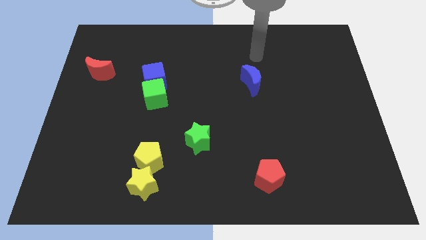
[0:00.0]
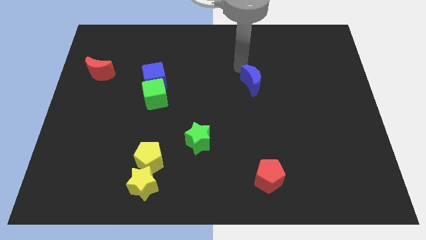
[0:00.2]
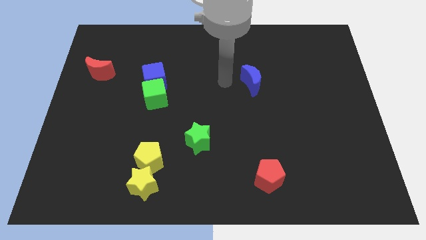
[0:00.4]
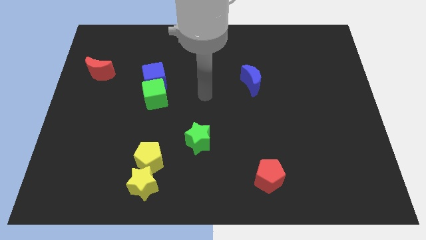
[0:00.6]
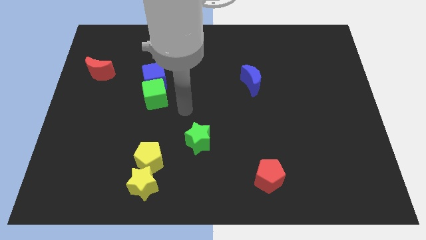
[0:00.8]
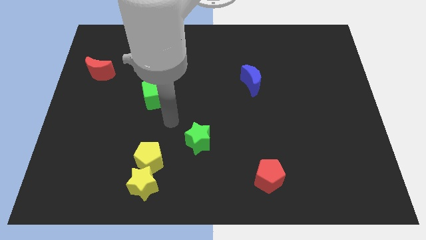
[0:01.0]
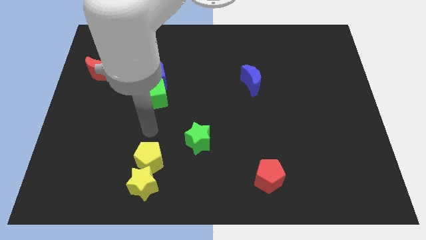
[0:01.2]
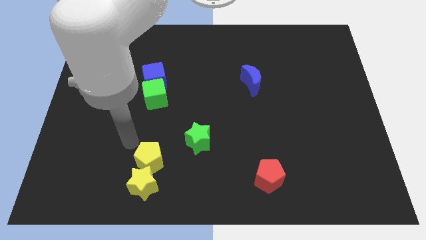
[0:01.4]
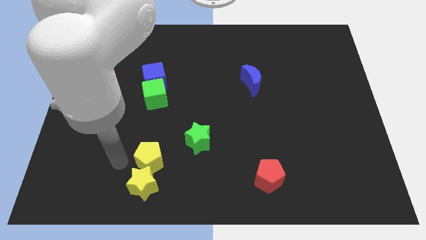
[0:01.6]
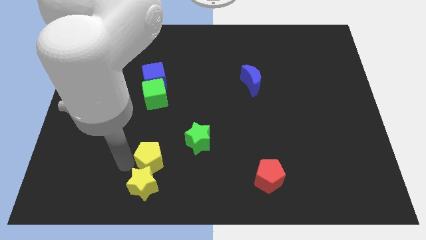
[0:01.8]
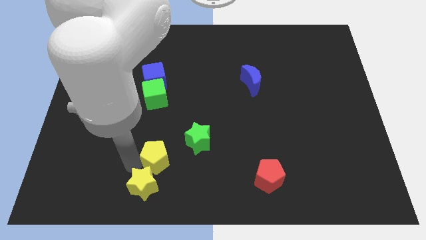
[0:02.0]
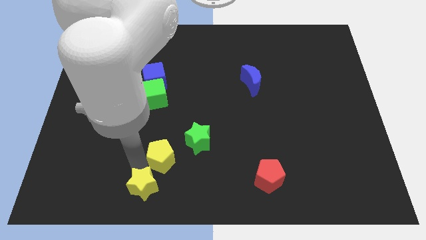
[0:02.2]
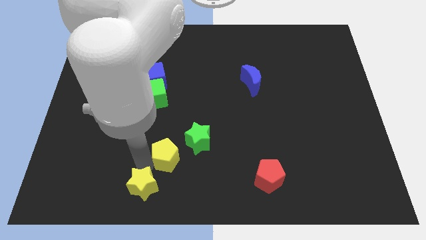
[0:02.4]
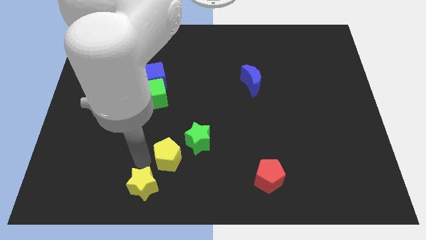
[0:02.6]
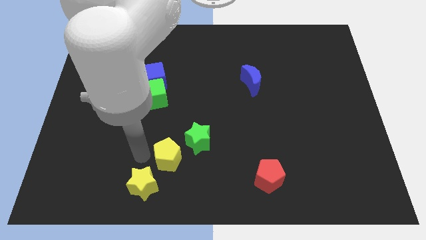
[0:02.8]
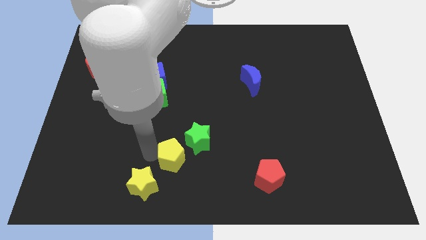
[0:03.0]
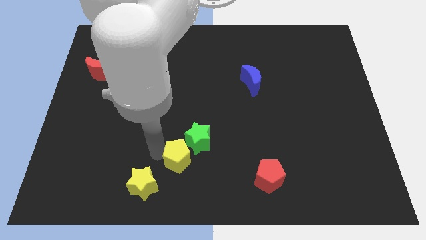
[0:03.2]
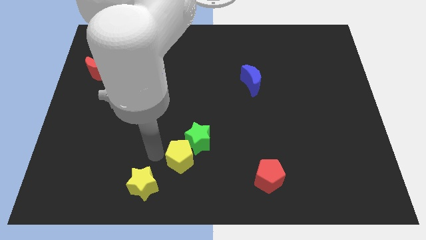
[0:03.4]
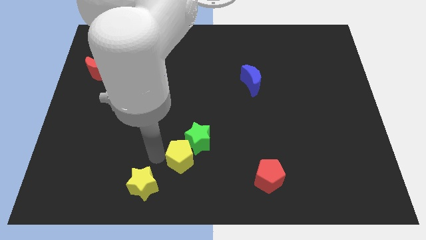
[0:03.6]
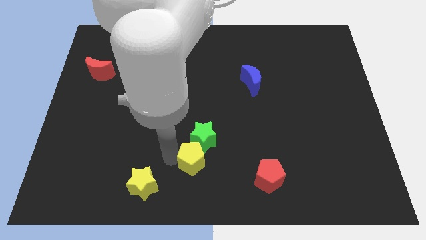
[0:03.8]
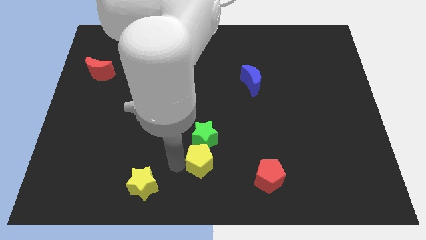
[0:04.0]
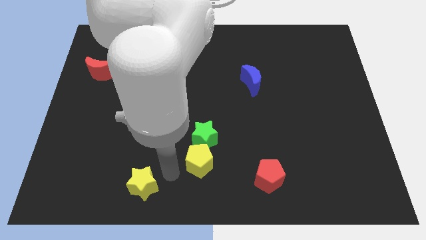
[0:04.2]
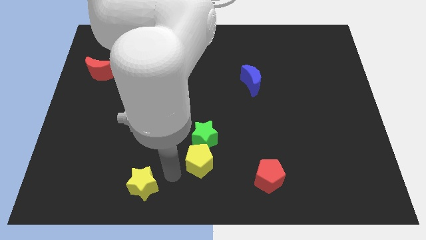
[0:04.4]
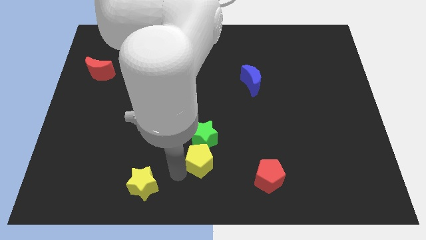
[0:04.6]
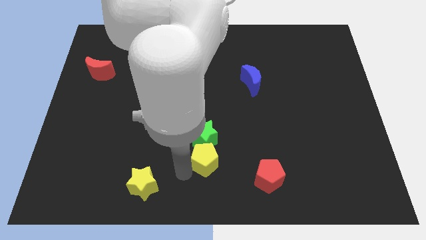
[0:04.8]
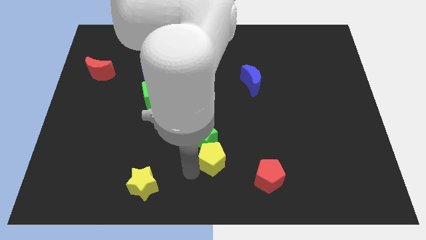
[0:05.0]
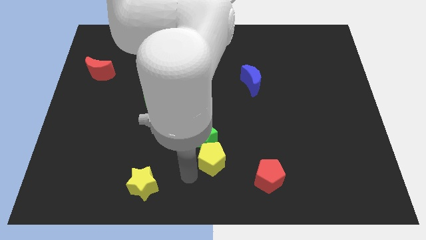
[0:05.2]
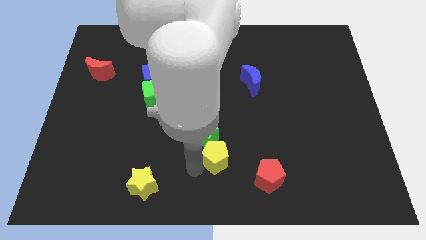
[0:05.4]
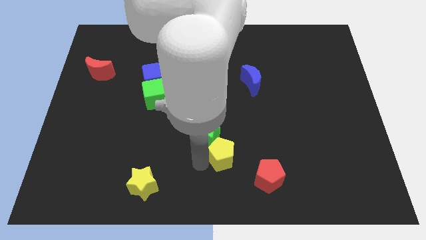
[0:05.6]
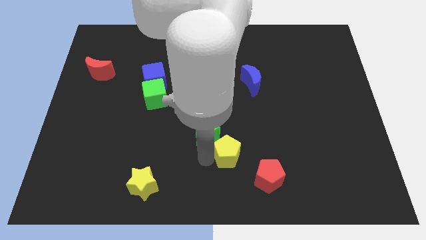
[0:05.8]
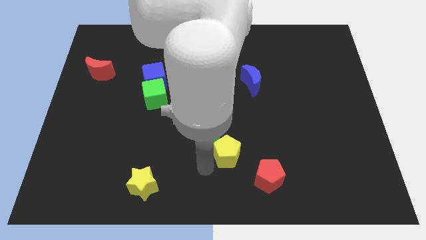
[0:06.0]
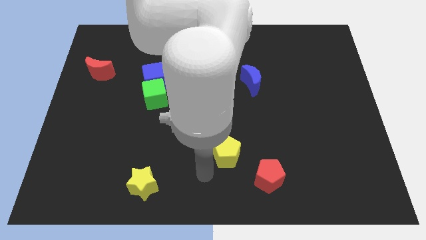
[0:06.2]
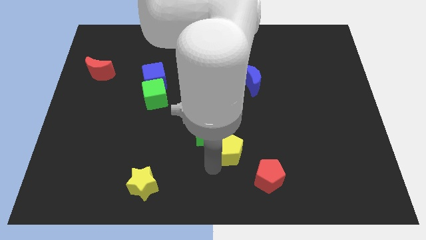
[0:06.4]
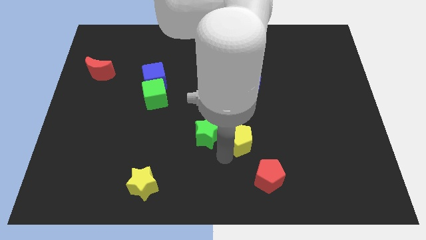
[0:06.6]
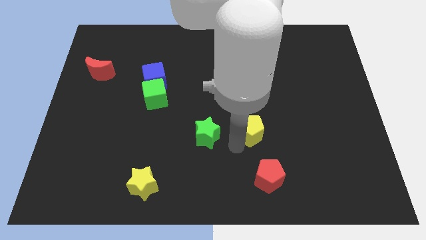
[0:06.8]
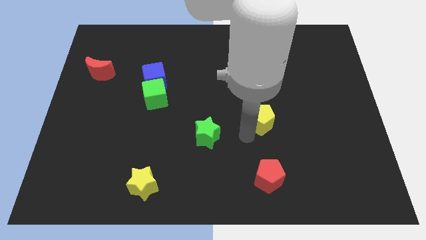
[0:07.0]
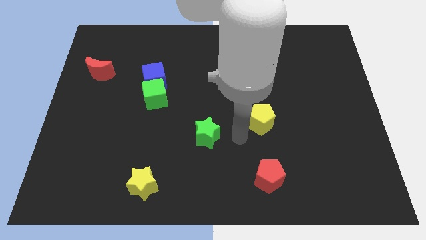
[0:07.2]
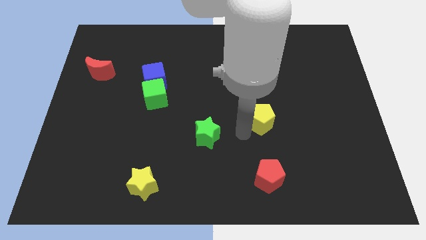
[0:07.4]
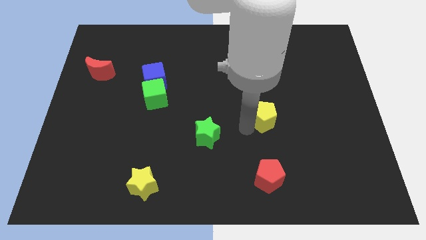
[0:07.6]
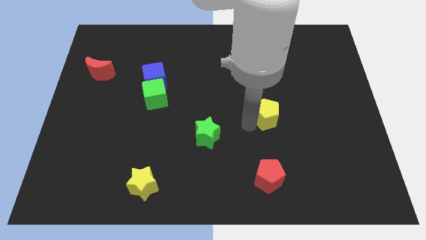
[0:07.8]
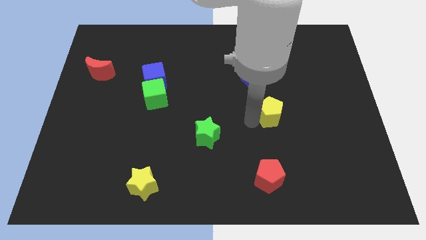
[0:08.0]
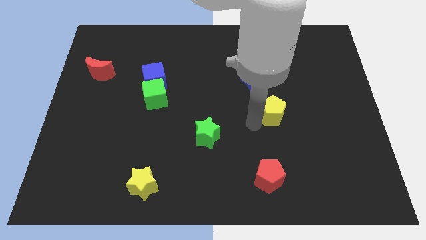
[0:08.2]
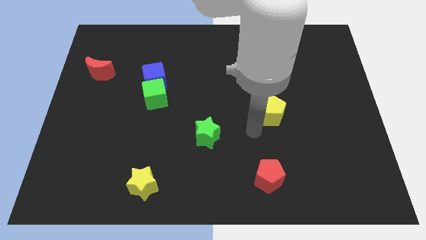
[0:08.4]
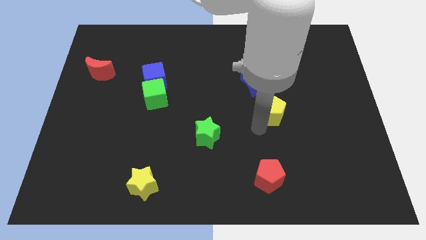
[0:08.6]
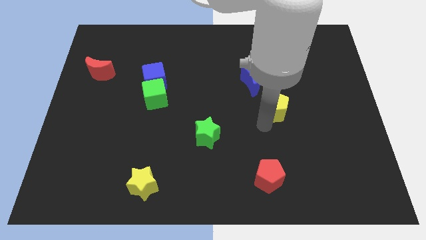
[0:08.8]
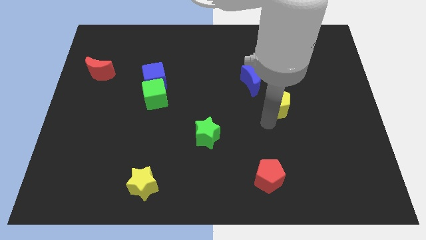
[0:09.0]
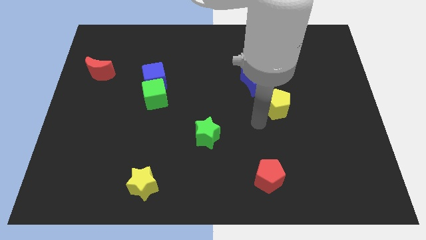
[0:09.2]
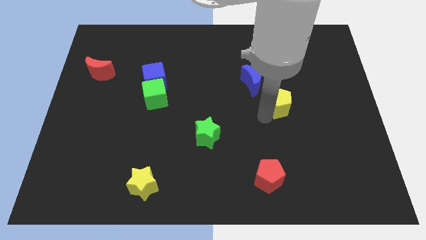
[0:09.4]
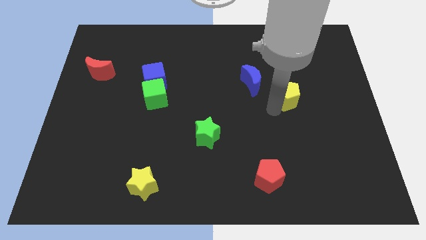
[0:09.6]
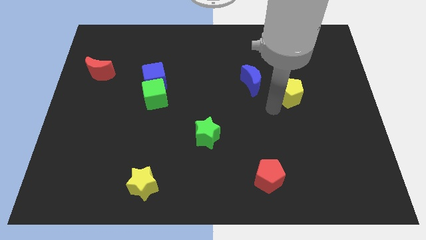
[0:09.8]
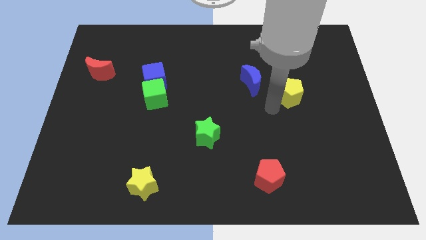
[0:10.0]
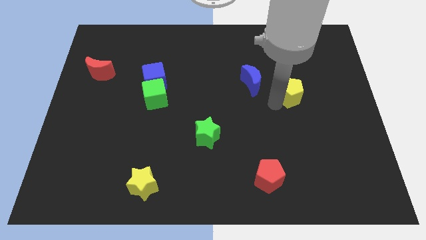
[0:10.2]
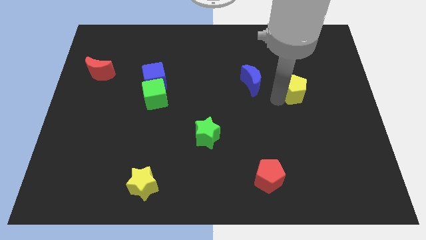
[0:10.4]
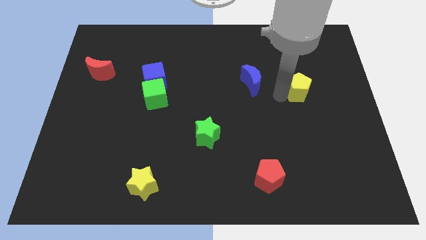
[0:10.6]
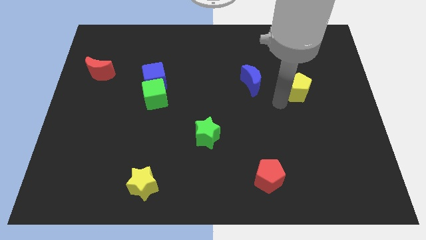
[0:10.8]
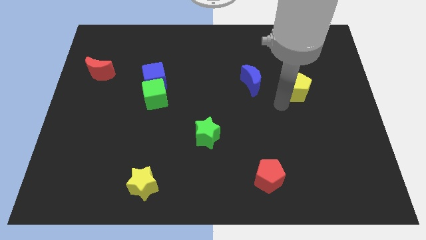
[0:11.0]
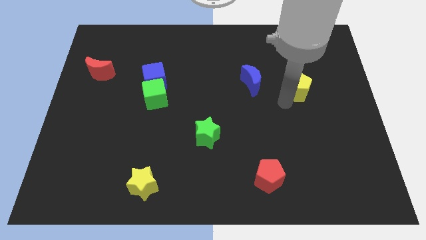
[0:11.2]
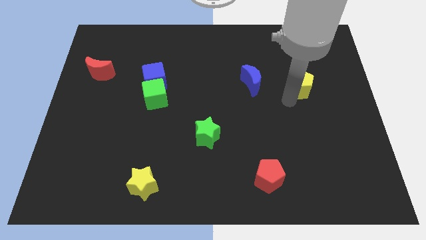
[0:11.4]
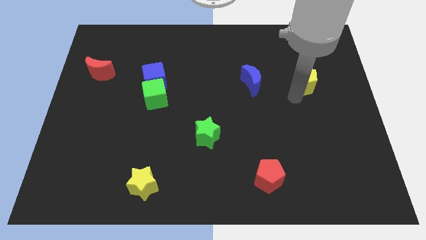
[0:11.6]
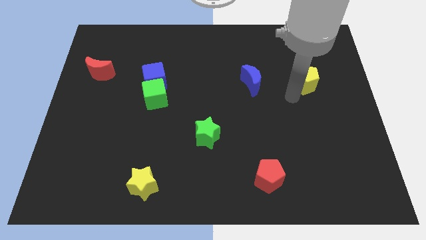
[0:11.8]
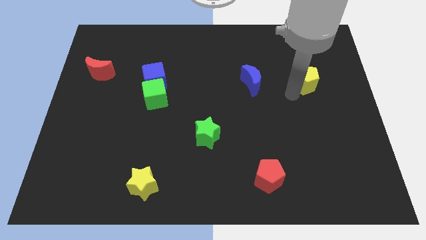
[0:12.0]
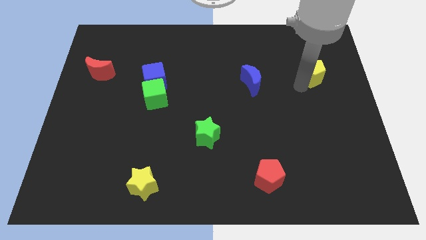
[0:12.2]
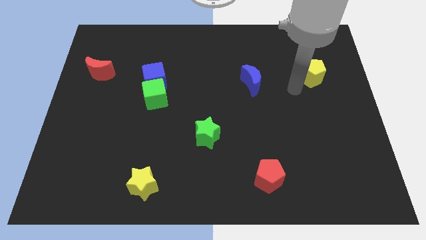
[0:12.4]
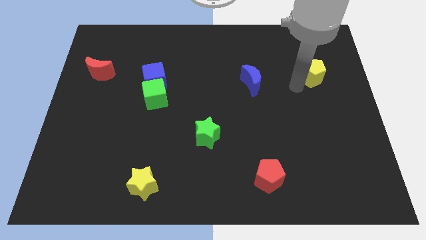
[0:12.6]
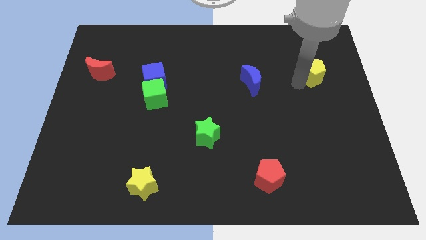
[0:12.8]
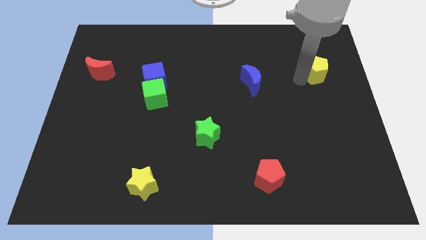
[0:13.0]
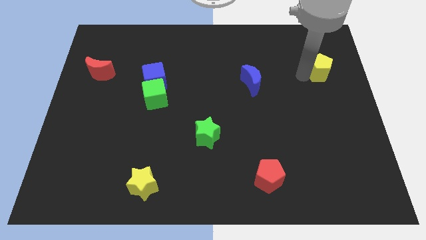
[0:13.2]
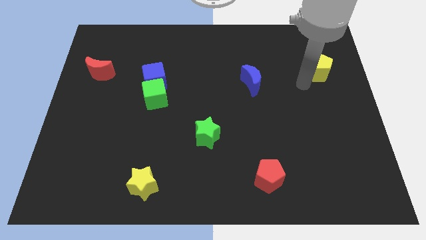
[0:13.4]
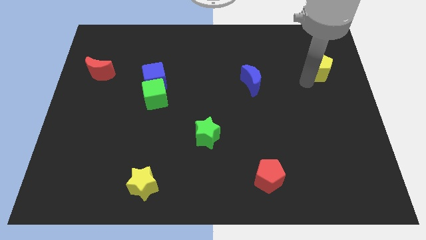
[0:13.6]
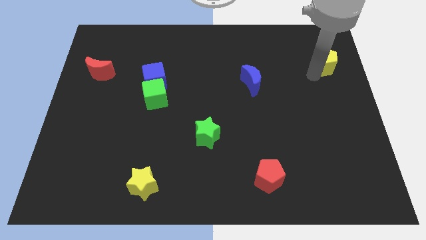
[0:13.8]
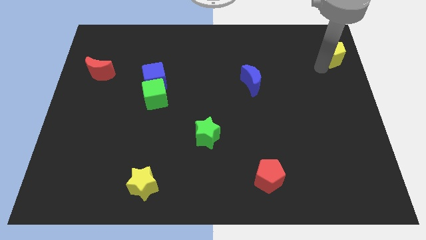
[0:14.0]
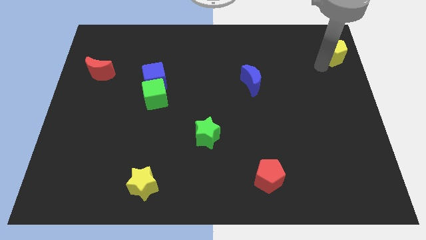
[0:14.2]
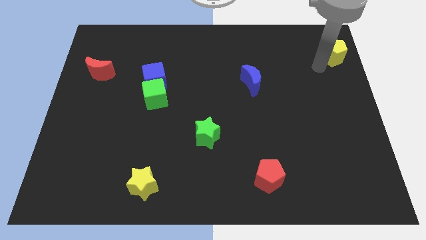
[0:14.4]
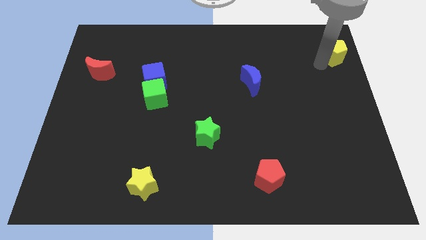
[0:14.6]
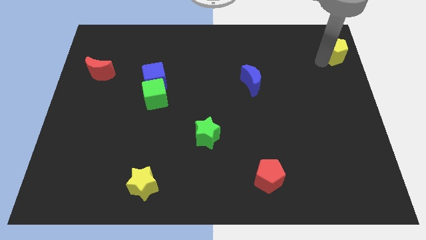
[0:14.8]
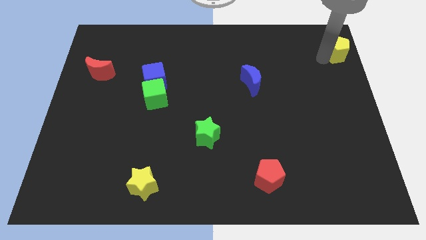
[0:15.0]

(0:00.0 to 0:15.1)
push the yellow pentagon to the upper right corner
